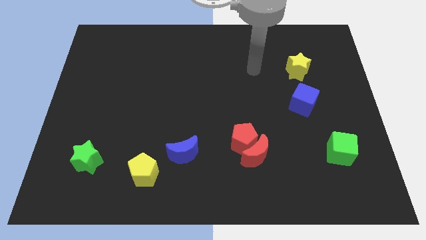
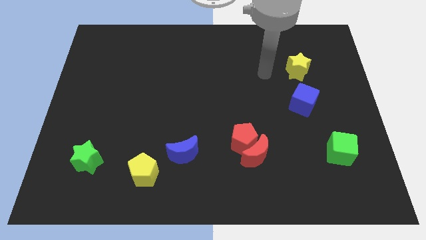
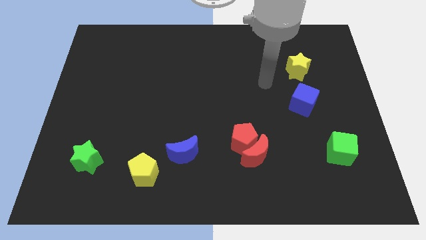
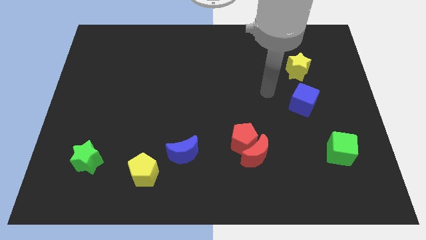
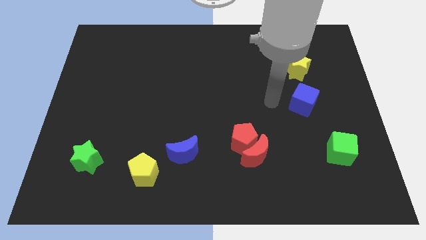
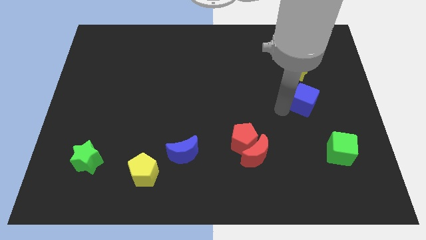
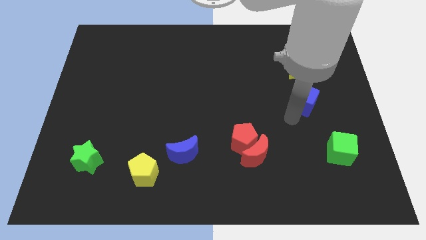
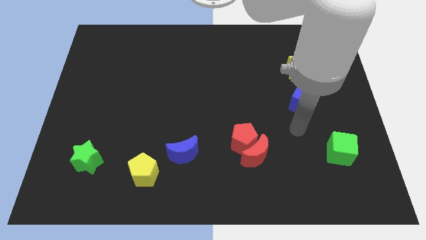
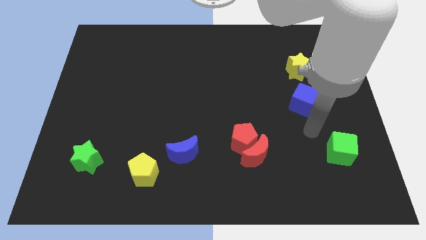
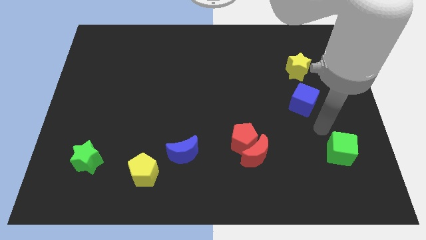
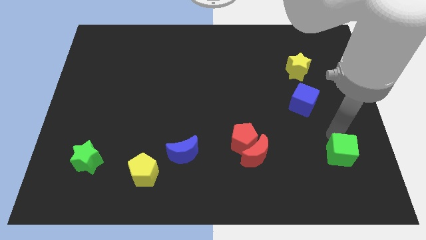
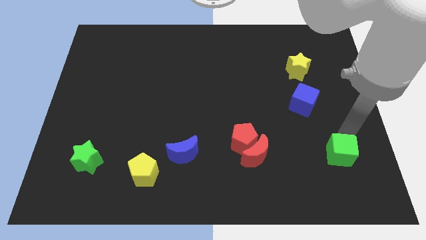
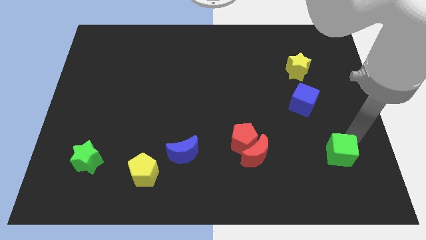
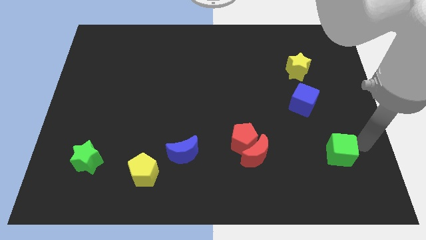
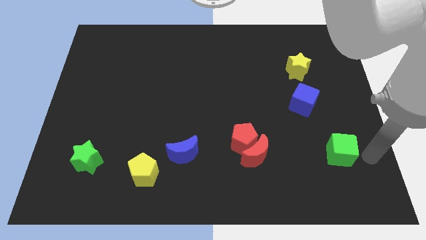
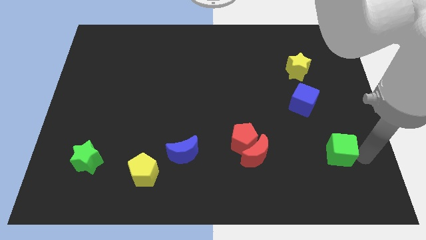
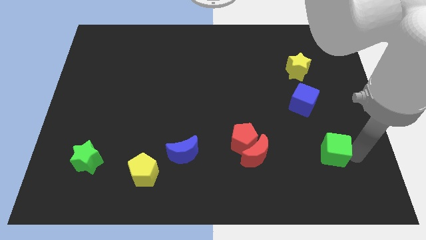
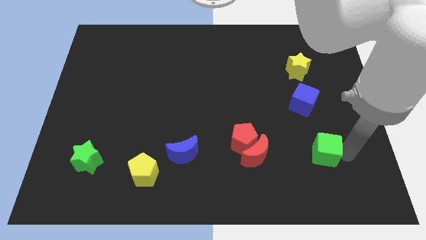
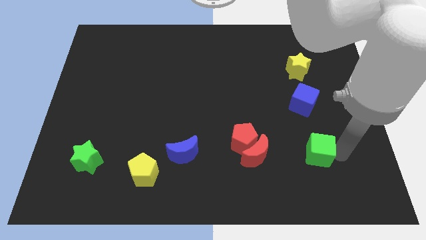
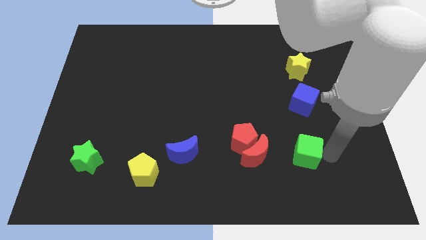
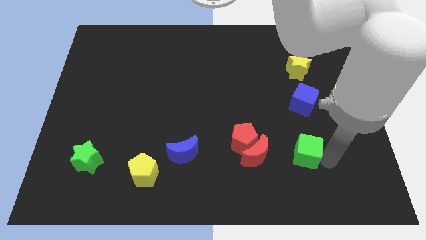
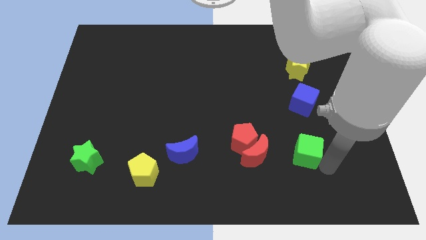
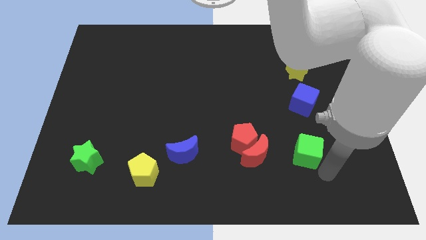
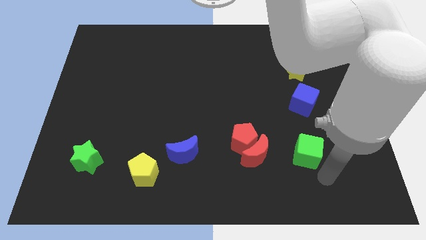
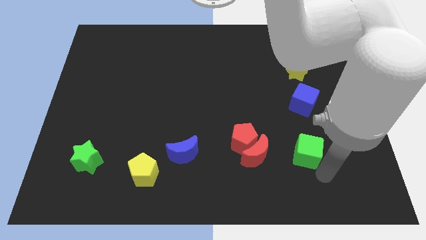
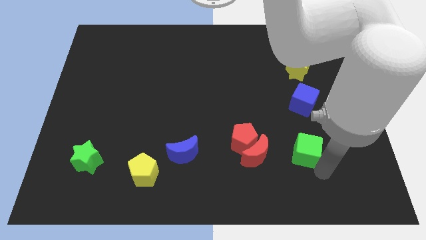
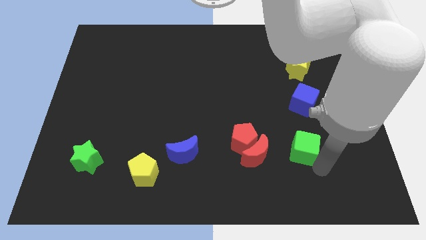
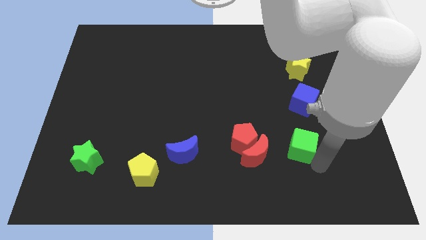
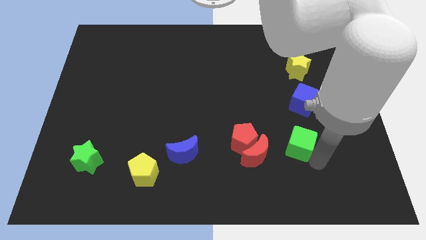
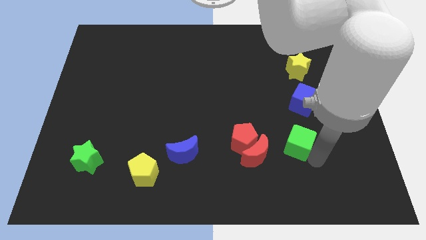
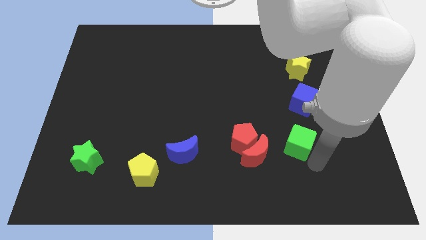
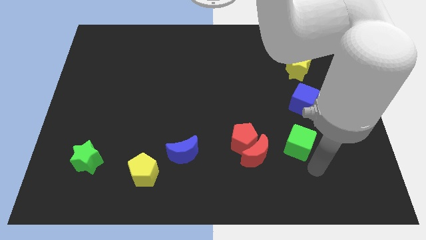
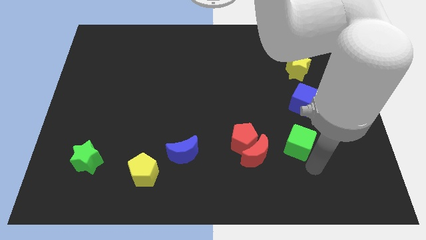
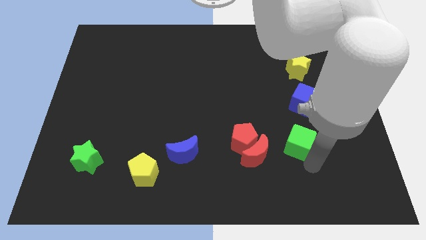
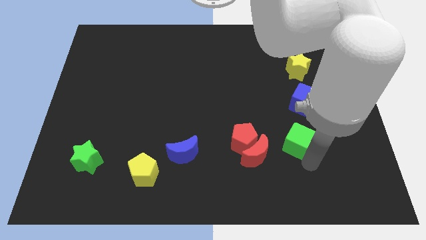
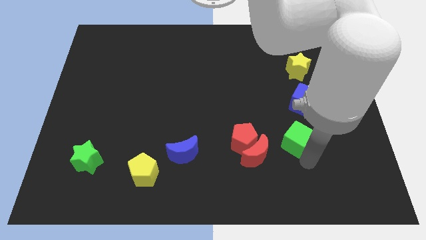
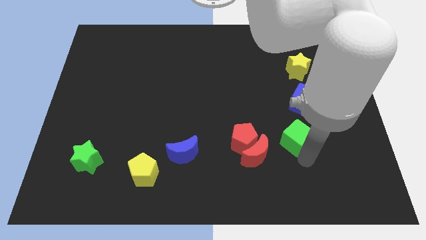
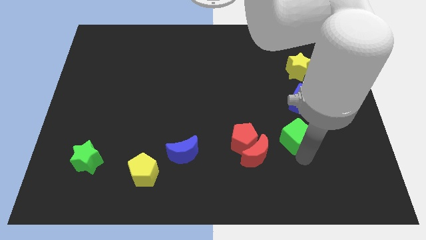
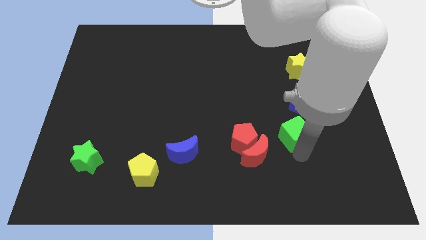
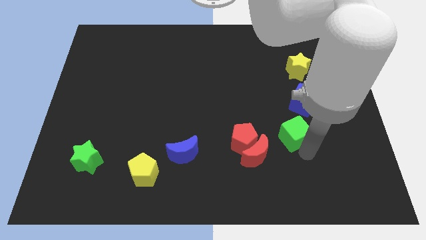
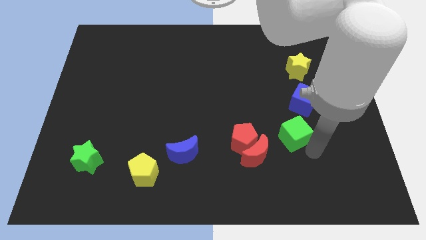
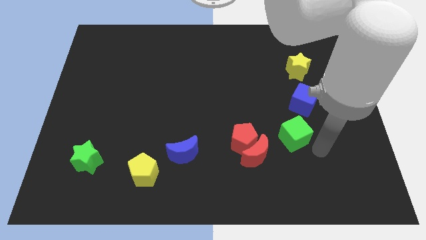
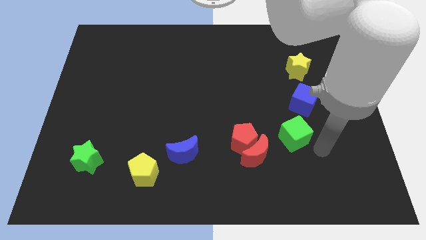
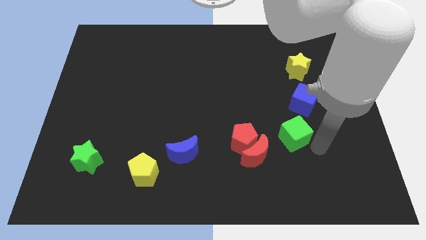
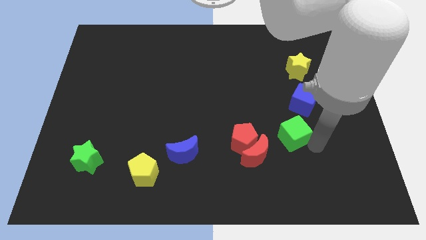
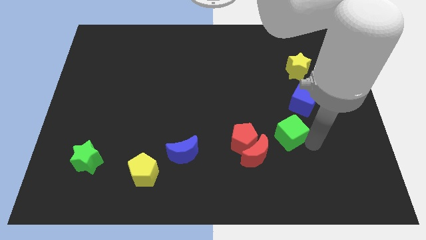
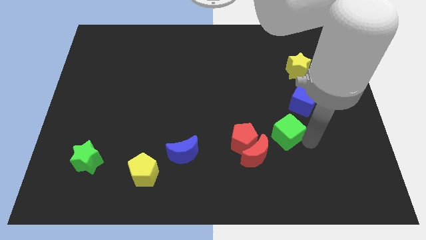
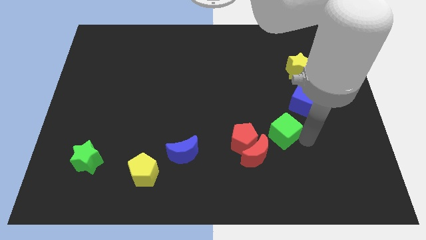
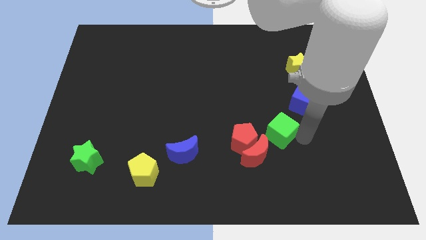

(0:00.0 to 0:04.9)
slide the green cube to the top right of the red pentagon

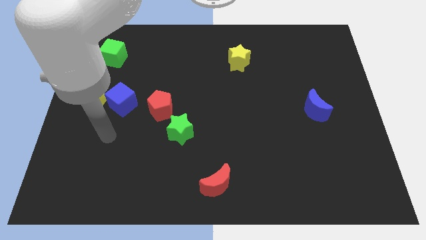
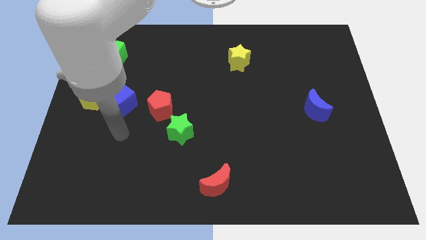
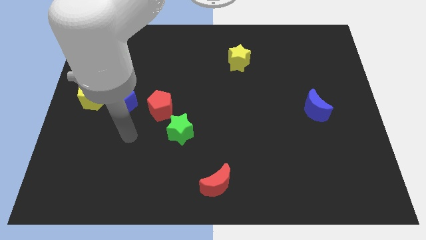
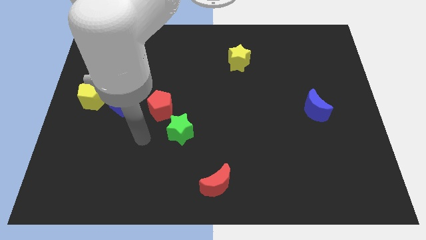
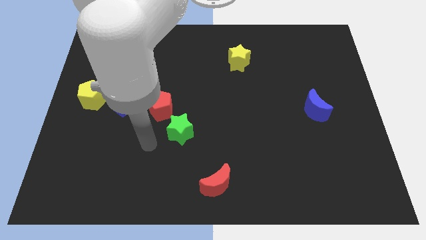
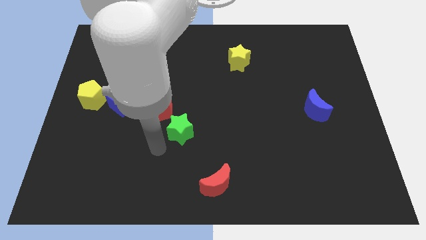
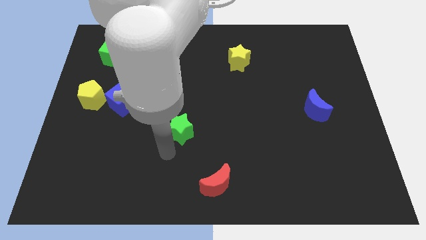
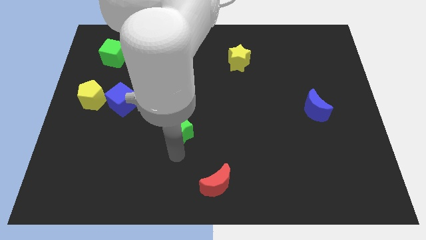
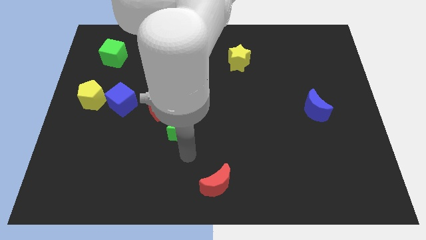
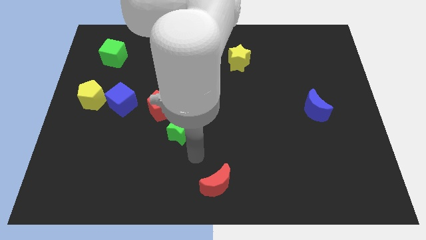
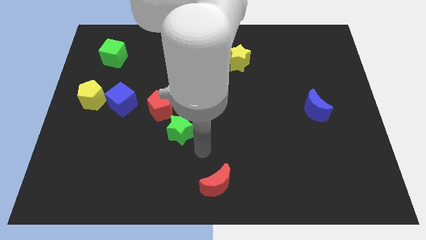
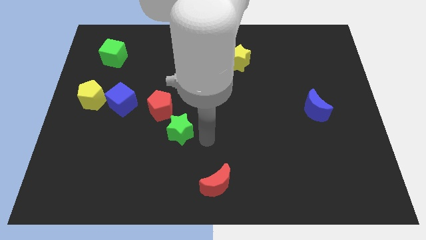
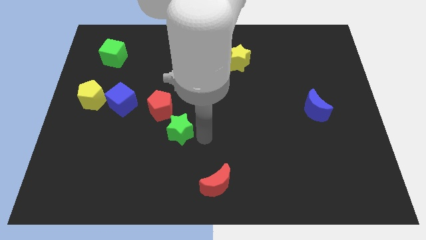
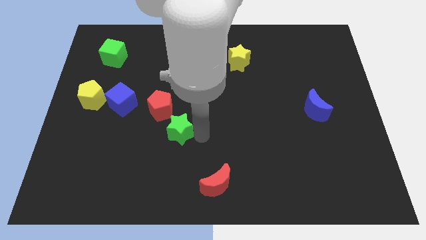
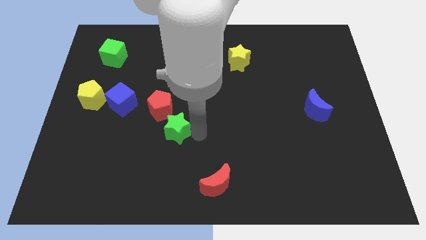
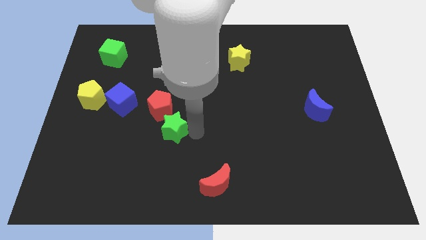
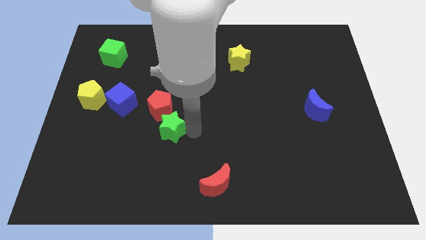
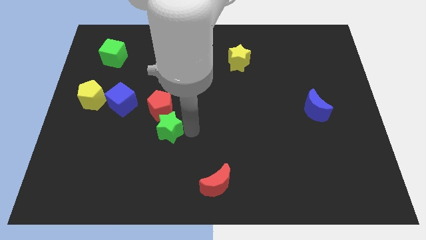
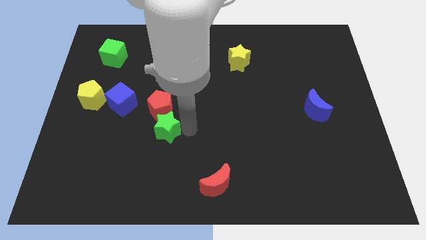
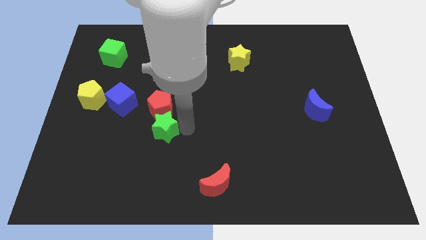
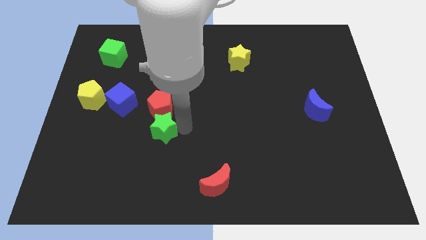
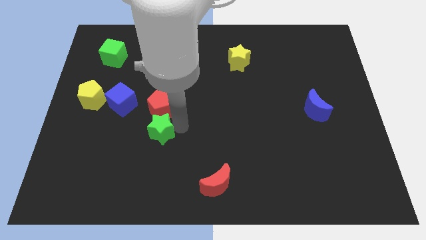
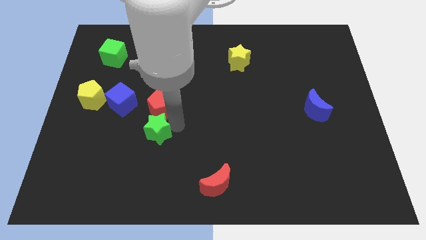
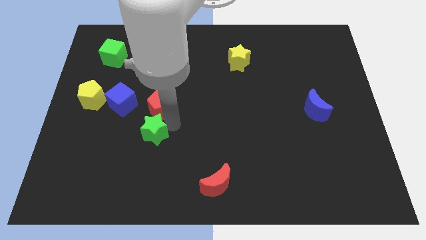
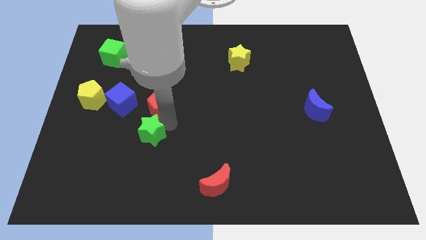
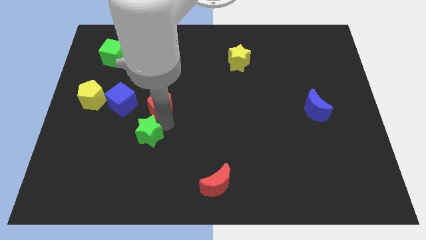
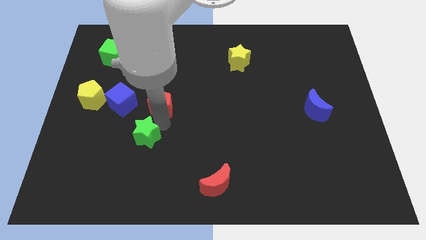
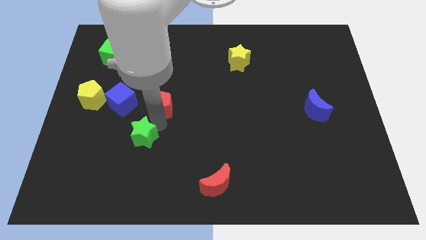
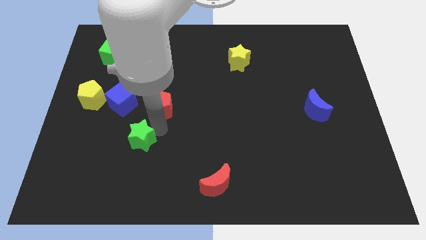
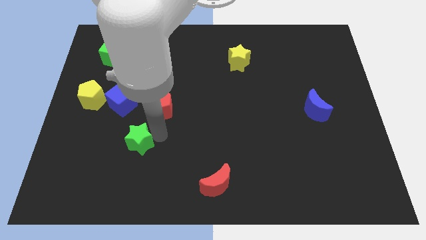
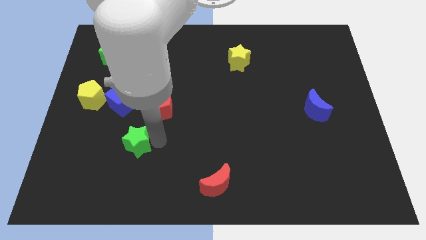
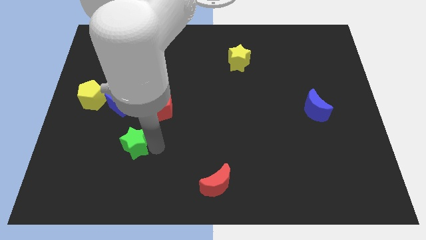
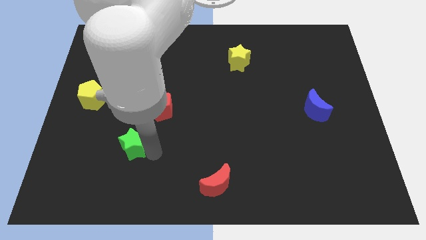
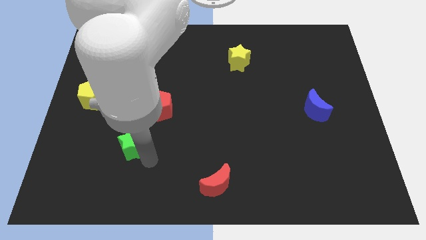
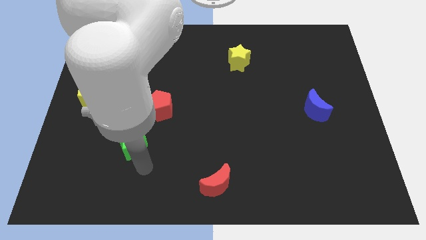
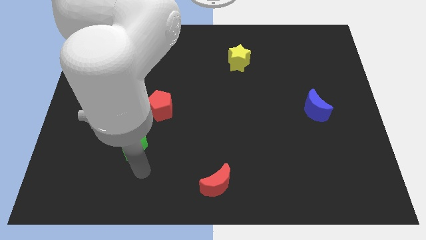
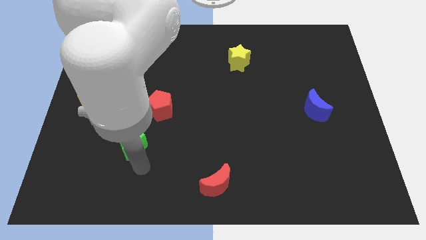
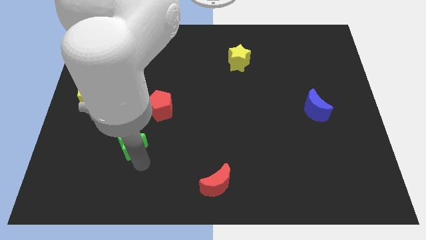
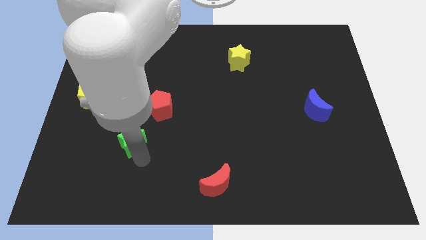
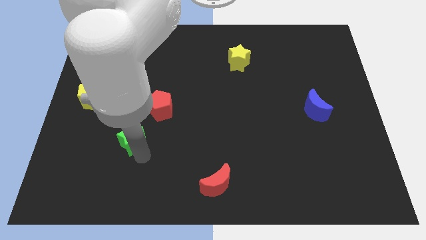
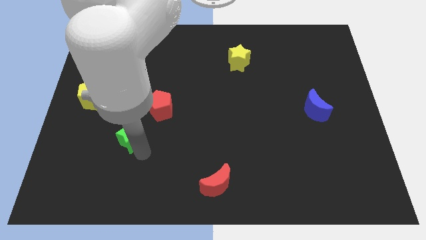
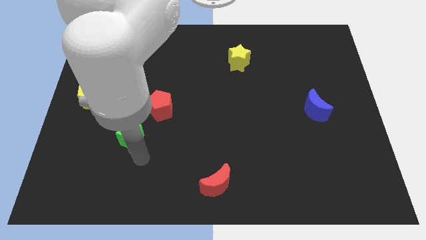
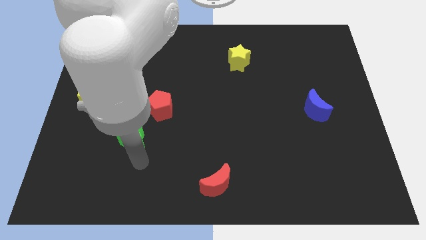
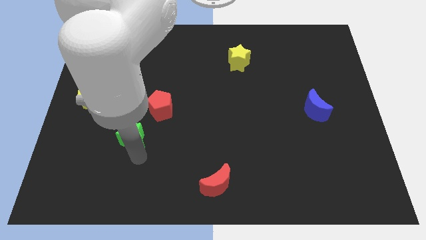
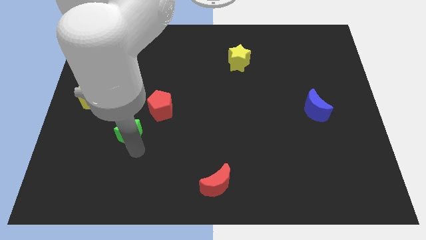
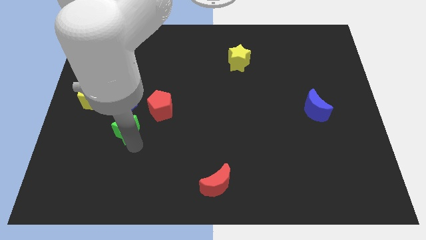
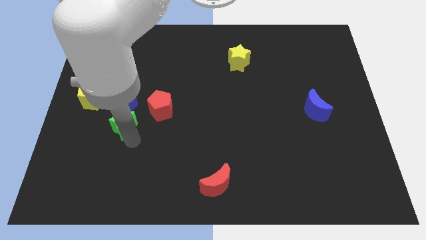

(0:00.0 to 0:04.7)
move the green star left of the red pentagon
